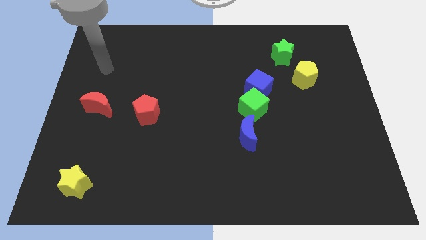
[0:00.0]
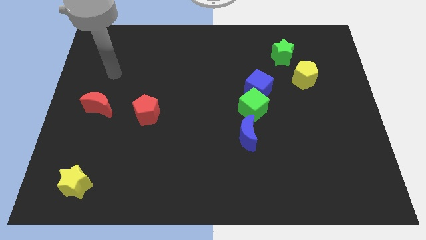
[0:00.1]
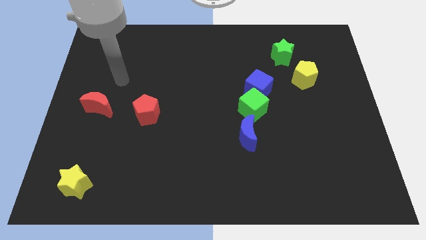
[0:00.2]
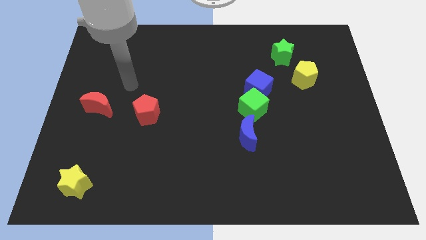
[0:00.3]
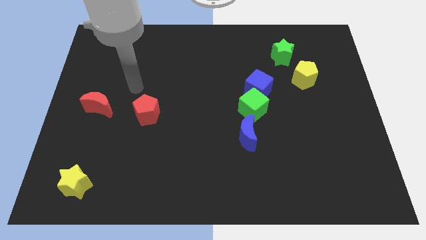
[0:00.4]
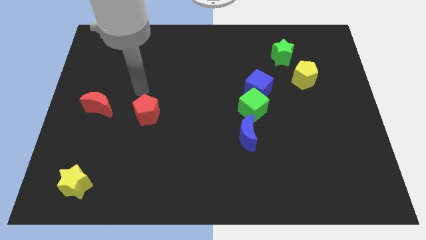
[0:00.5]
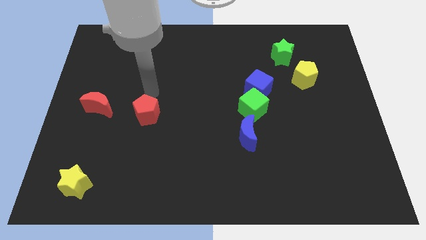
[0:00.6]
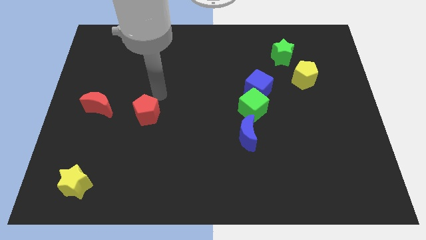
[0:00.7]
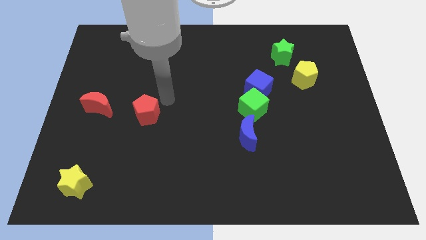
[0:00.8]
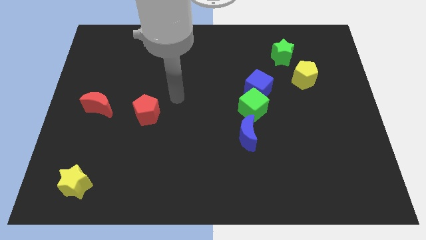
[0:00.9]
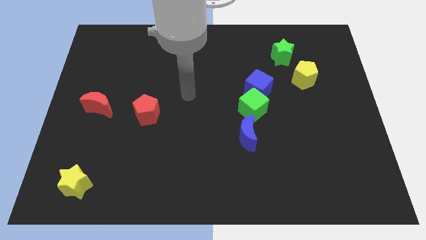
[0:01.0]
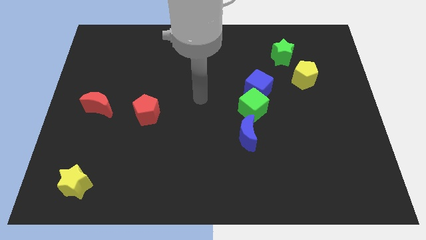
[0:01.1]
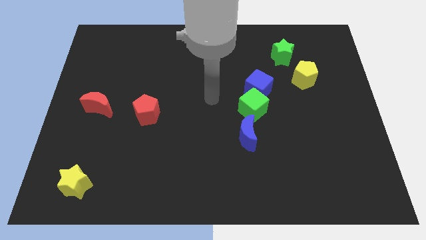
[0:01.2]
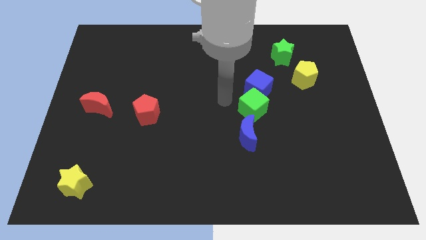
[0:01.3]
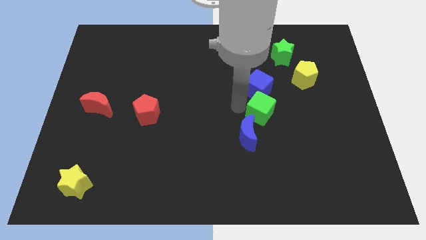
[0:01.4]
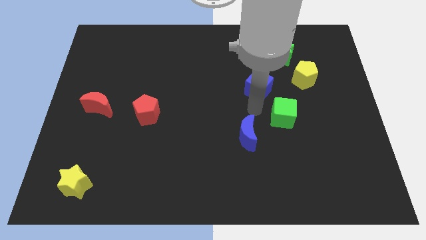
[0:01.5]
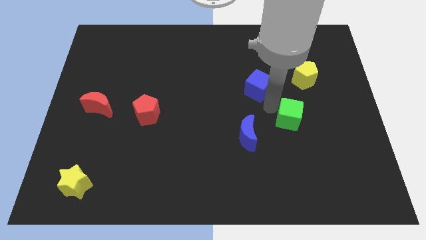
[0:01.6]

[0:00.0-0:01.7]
separate the blue cube from the green cube

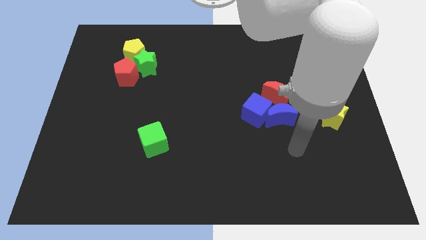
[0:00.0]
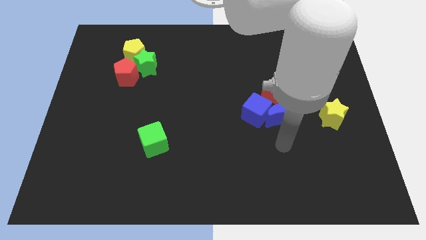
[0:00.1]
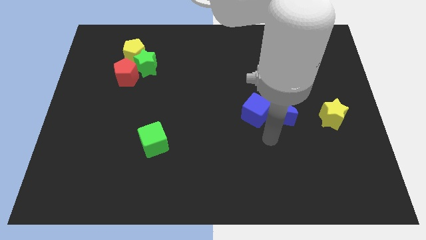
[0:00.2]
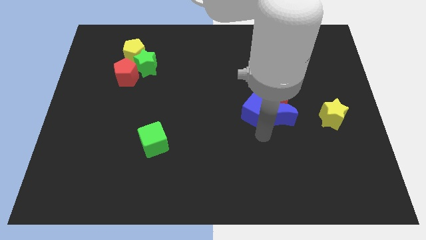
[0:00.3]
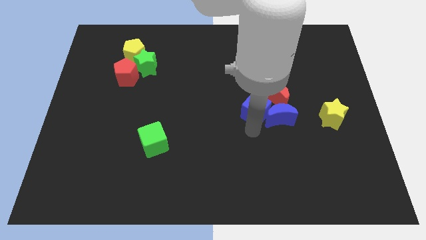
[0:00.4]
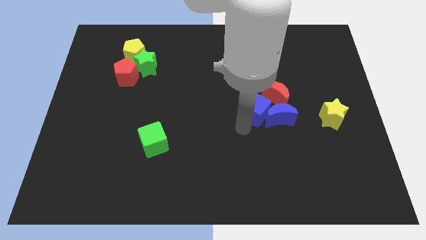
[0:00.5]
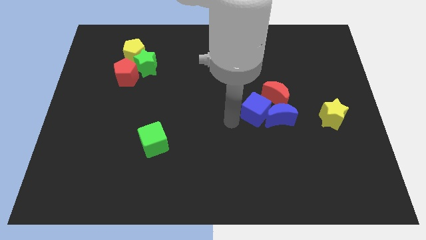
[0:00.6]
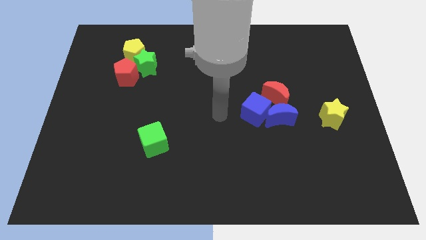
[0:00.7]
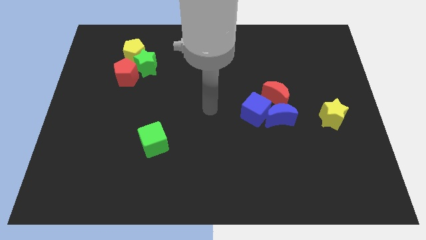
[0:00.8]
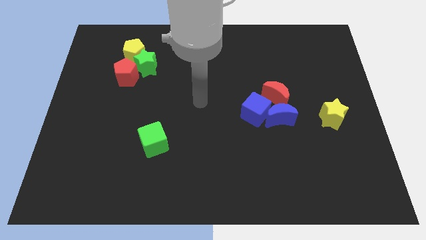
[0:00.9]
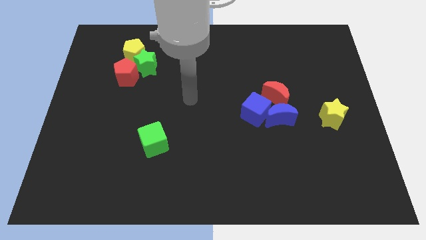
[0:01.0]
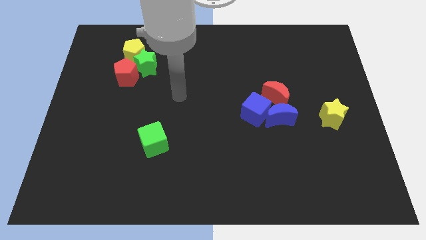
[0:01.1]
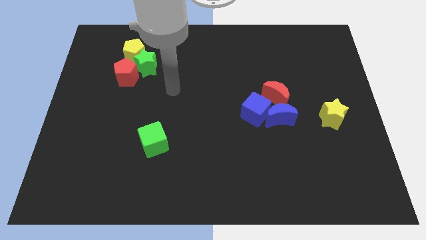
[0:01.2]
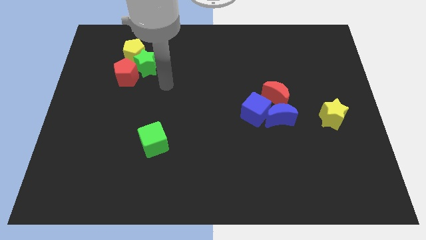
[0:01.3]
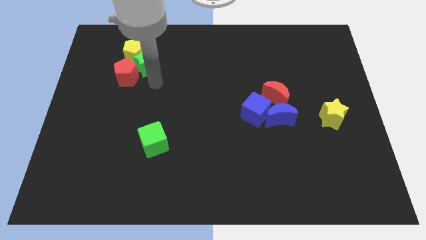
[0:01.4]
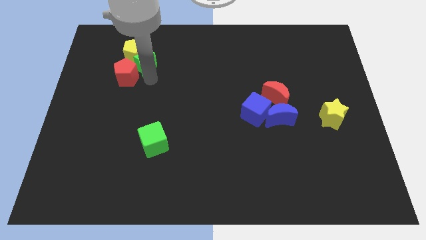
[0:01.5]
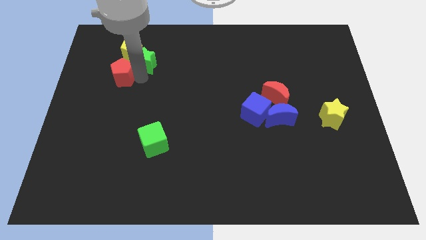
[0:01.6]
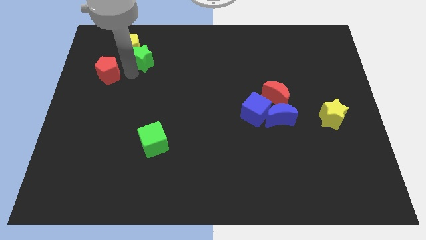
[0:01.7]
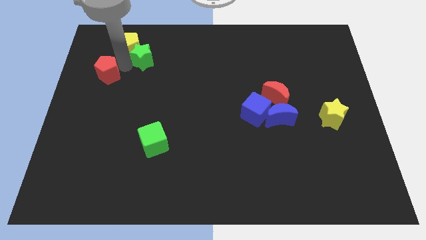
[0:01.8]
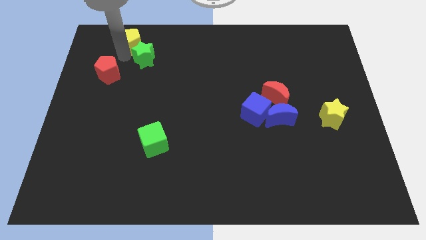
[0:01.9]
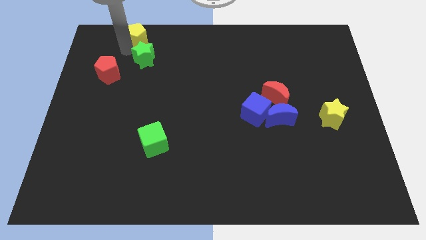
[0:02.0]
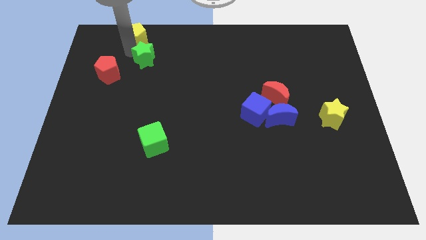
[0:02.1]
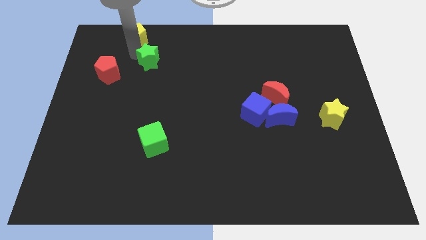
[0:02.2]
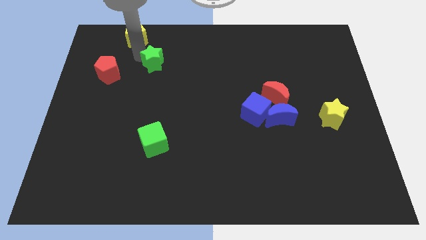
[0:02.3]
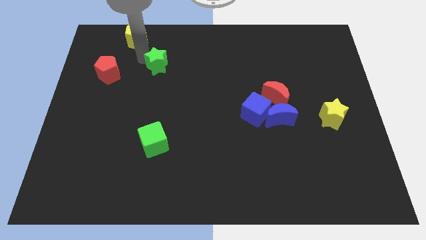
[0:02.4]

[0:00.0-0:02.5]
move the green star away from the yellow pentagon and red pentagon

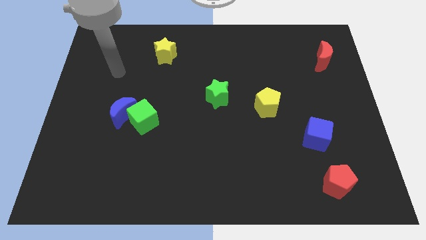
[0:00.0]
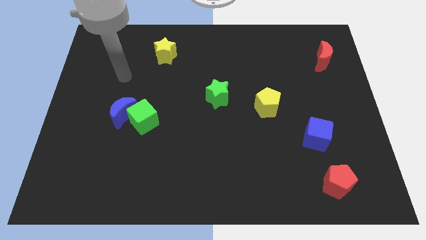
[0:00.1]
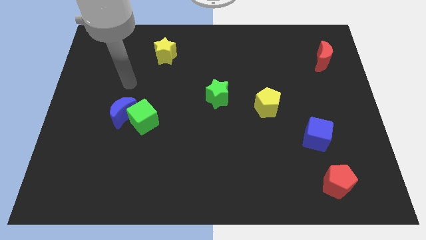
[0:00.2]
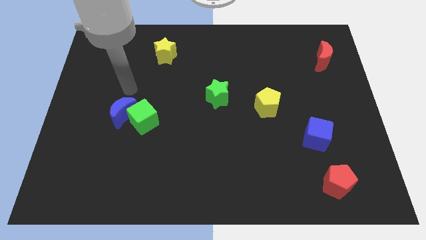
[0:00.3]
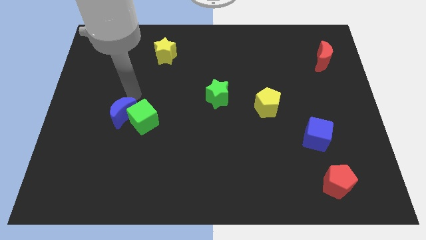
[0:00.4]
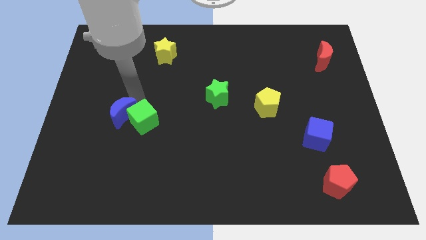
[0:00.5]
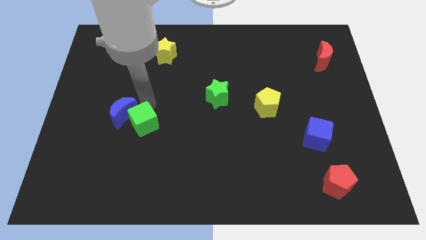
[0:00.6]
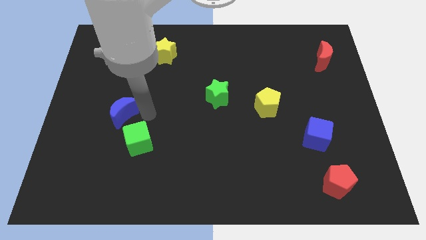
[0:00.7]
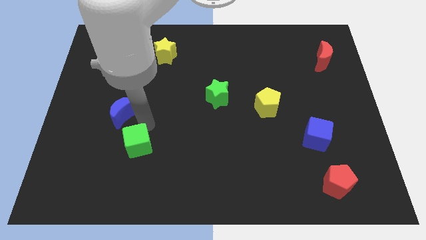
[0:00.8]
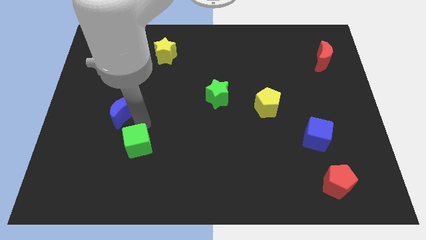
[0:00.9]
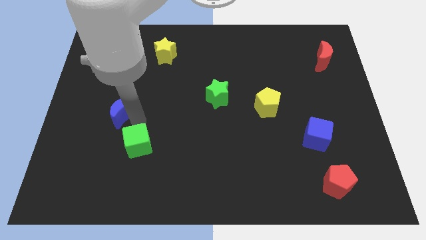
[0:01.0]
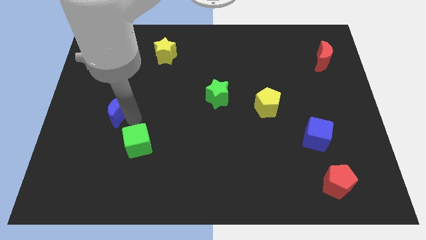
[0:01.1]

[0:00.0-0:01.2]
separate the blue moon from the green cube

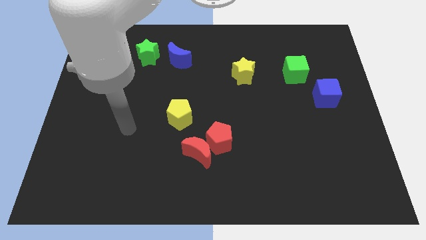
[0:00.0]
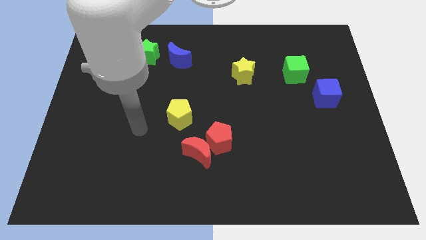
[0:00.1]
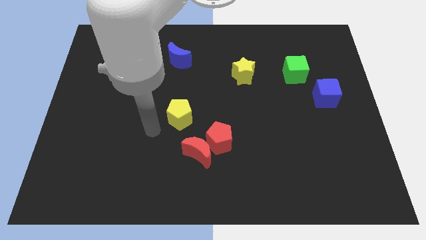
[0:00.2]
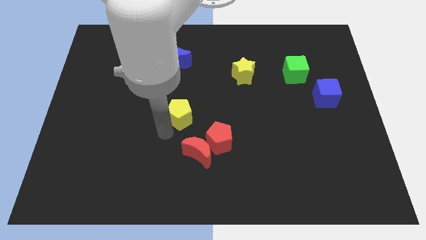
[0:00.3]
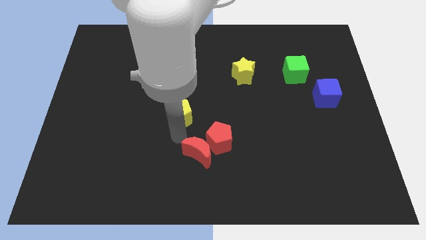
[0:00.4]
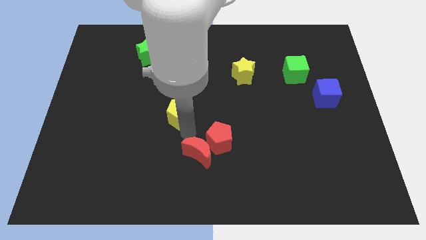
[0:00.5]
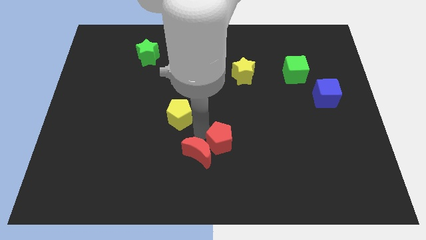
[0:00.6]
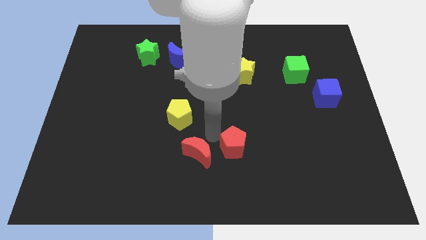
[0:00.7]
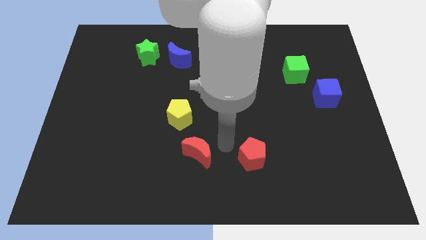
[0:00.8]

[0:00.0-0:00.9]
move the red moon away from the red pentagon

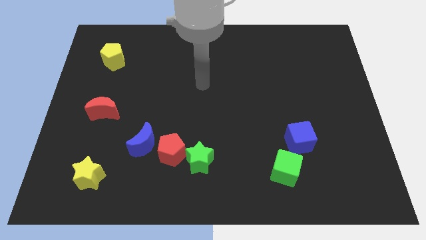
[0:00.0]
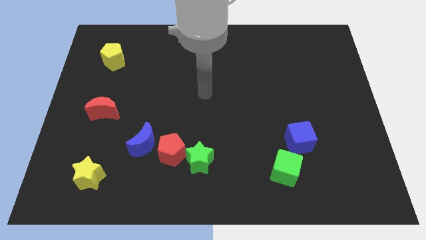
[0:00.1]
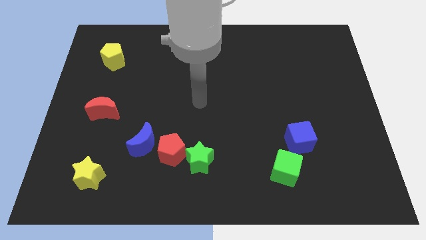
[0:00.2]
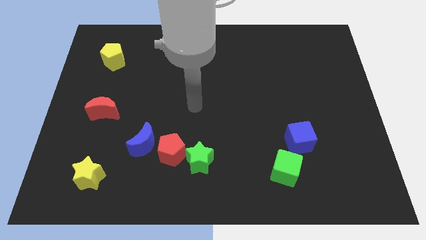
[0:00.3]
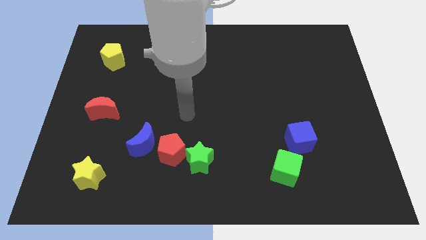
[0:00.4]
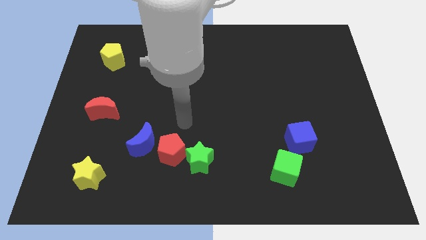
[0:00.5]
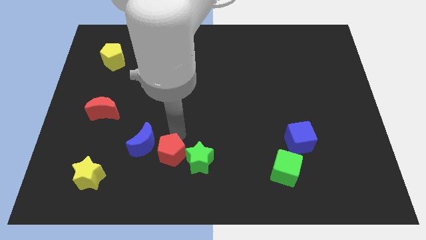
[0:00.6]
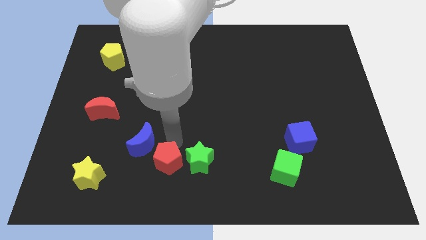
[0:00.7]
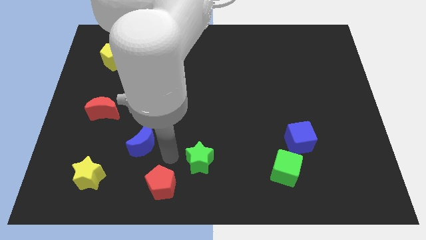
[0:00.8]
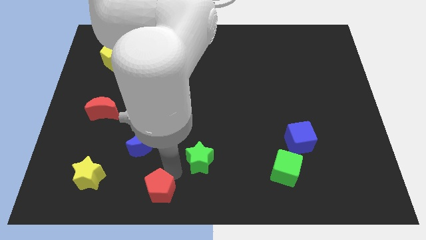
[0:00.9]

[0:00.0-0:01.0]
pull the green star apart from the red pentagon

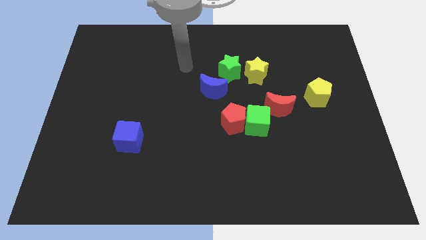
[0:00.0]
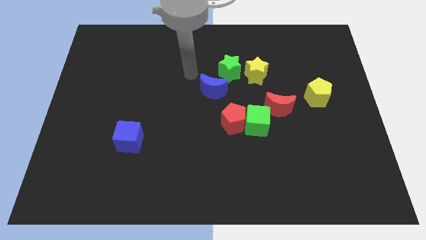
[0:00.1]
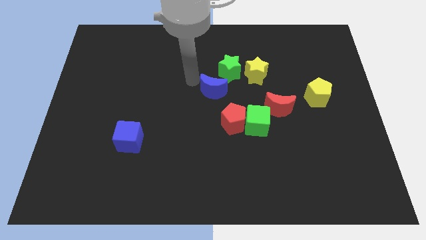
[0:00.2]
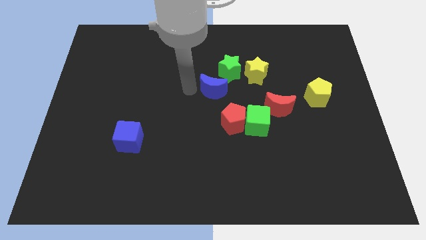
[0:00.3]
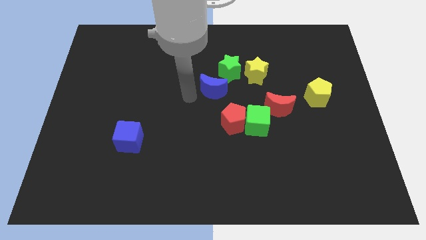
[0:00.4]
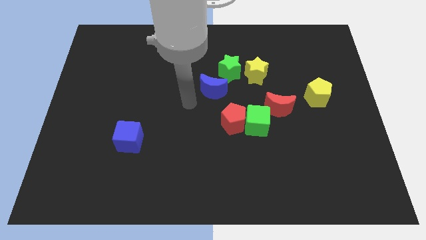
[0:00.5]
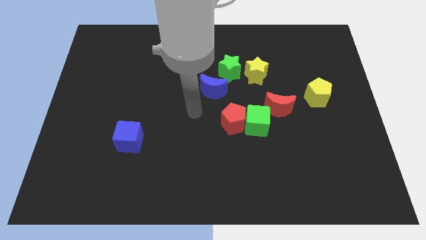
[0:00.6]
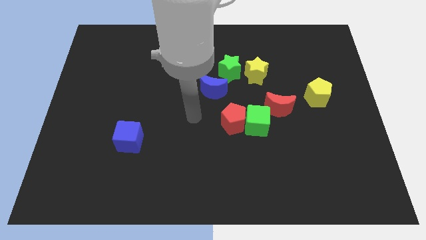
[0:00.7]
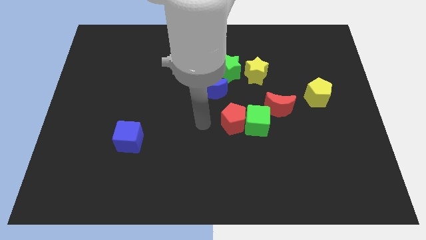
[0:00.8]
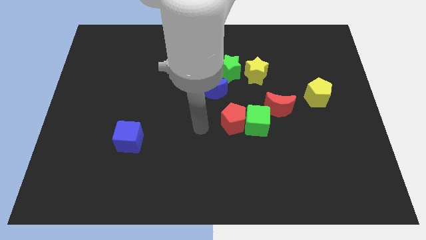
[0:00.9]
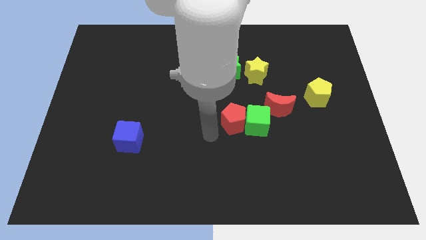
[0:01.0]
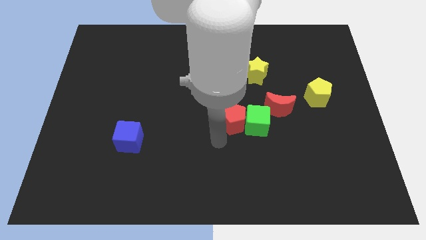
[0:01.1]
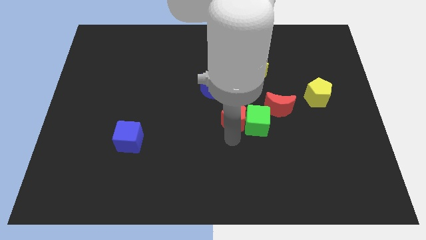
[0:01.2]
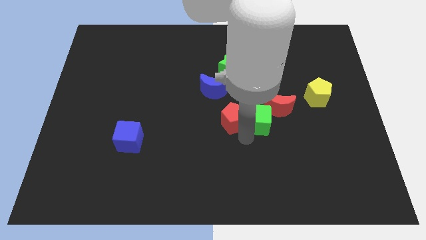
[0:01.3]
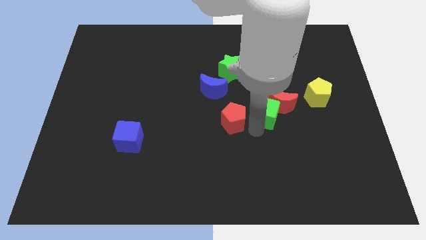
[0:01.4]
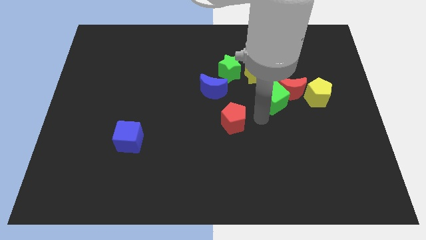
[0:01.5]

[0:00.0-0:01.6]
separate the red pentagon from the green cube

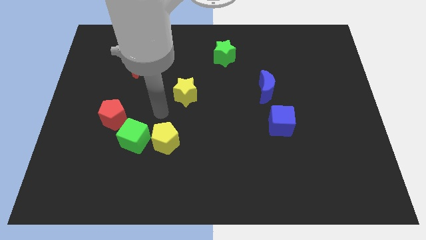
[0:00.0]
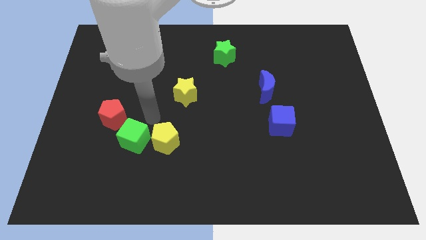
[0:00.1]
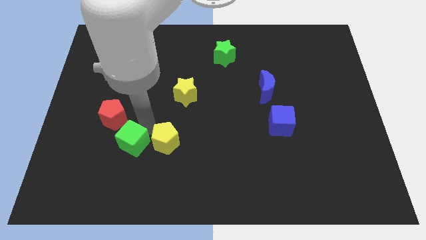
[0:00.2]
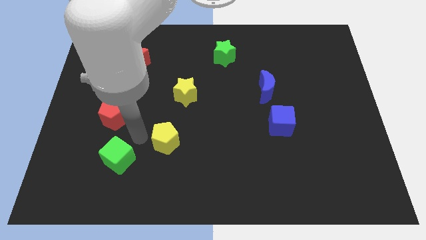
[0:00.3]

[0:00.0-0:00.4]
separate the yellow pentagon from the green cube
